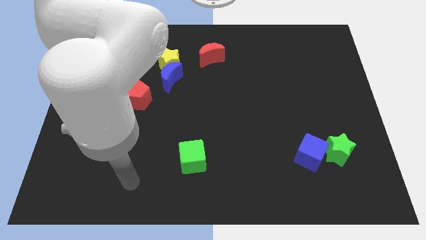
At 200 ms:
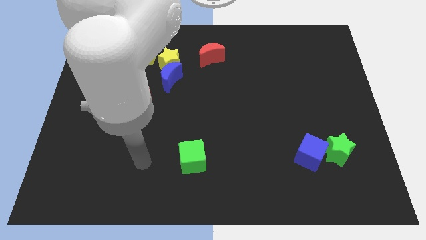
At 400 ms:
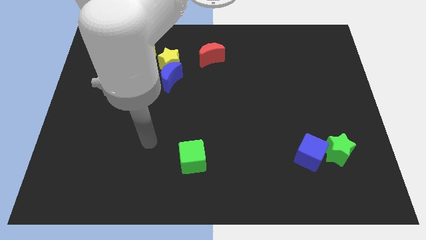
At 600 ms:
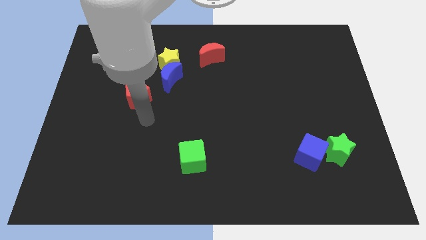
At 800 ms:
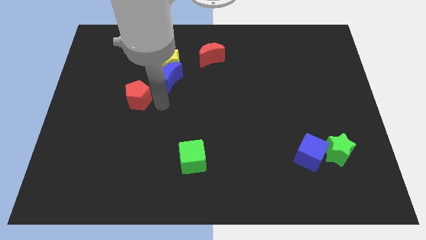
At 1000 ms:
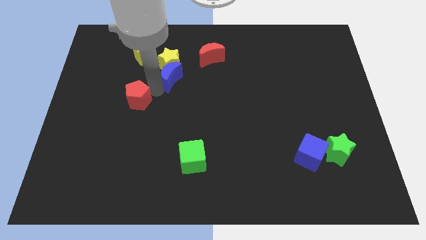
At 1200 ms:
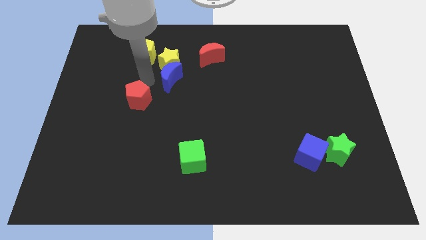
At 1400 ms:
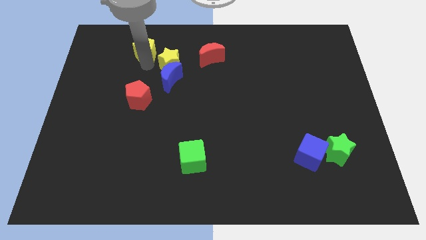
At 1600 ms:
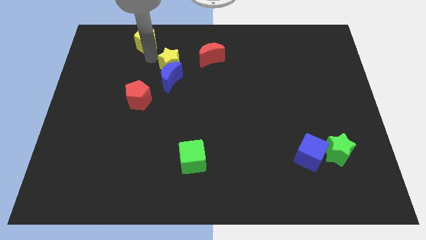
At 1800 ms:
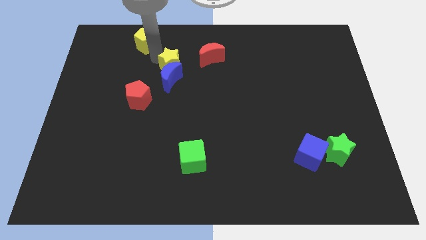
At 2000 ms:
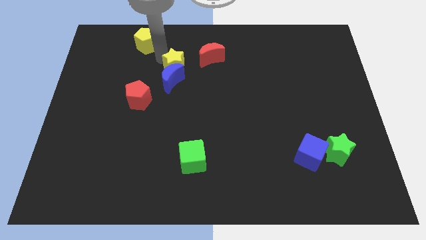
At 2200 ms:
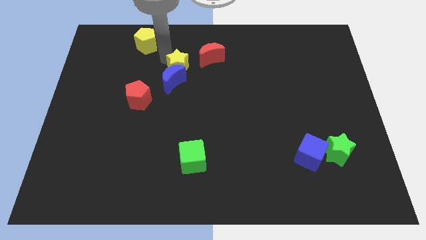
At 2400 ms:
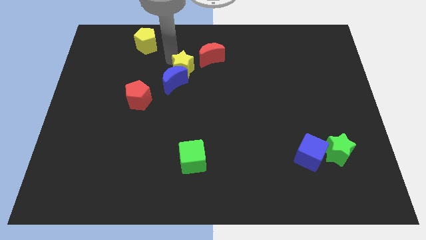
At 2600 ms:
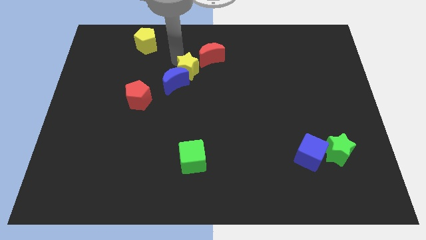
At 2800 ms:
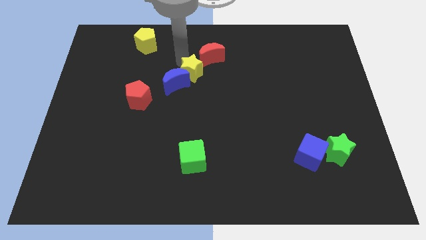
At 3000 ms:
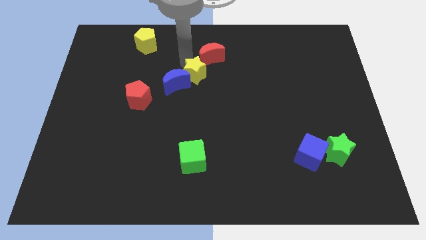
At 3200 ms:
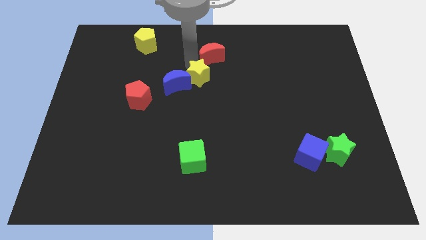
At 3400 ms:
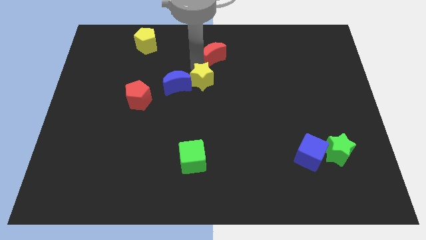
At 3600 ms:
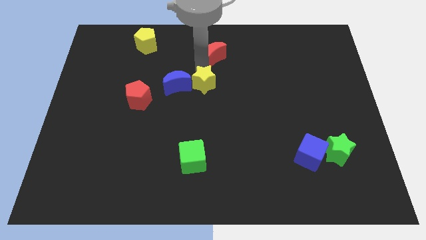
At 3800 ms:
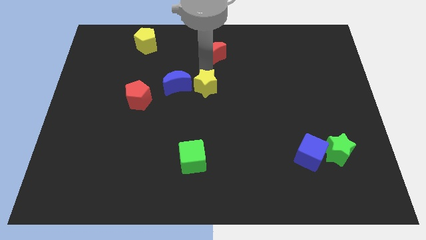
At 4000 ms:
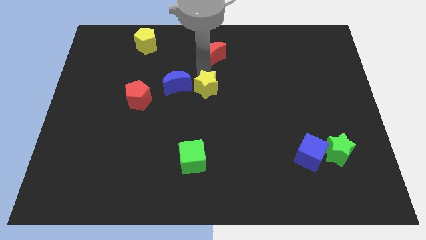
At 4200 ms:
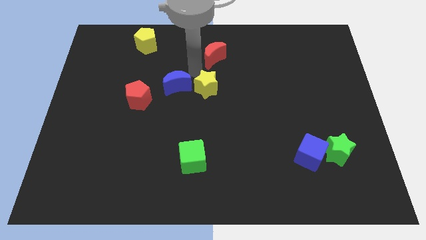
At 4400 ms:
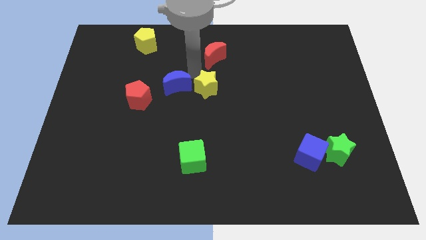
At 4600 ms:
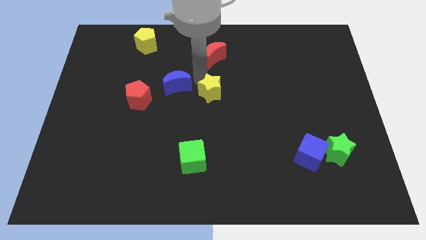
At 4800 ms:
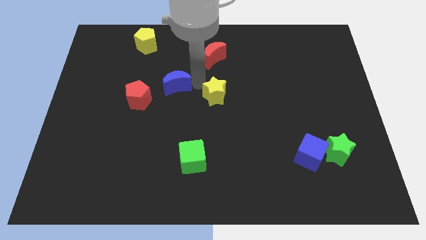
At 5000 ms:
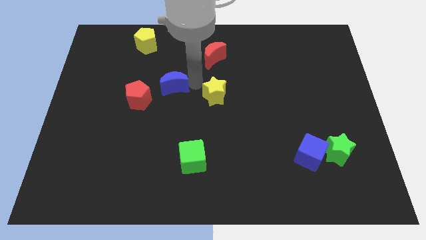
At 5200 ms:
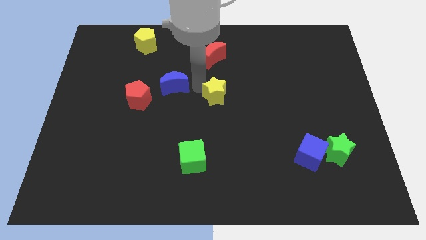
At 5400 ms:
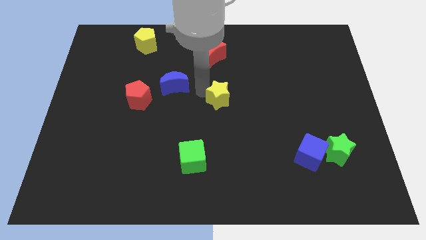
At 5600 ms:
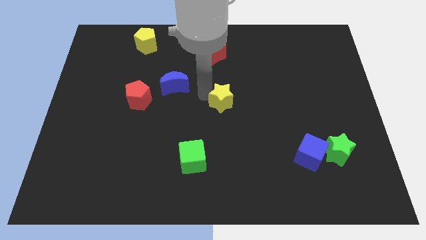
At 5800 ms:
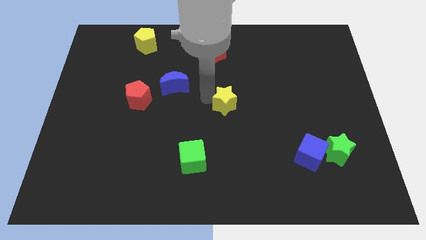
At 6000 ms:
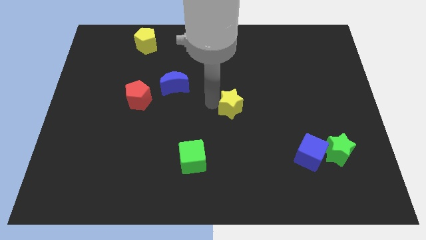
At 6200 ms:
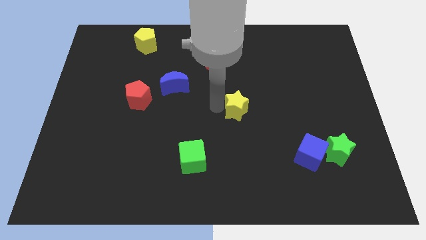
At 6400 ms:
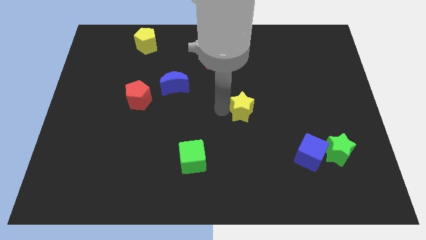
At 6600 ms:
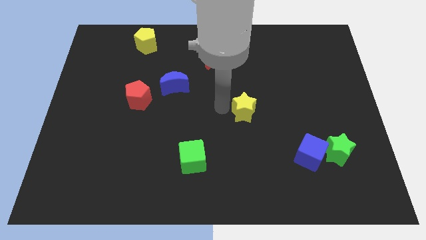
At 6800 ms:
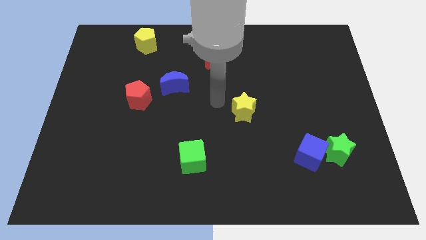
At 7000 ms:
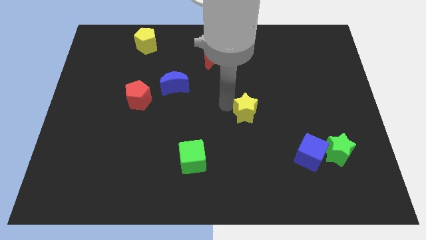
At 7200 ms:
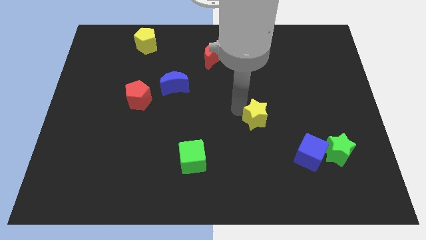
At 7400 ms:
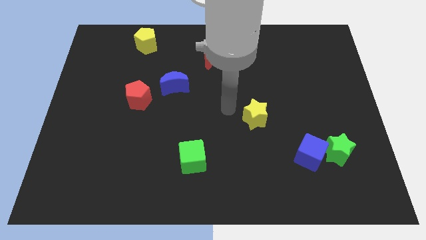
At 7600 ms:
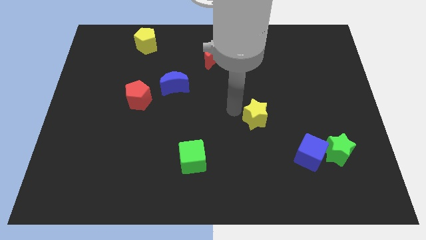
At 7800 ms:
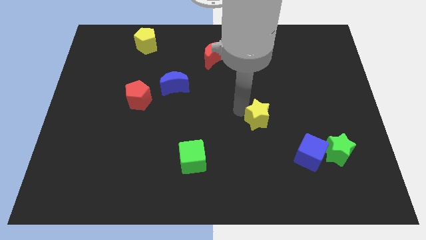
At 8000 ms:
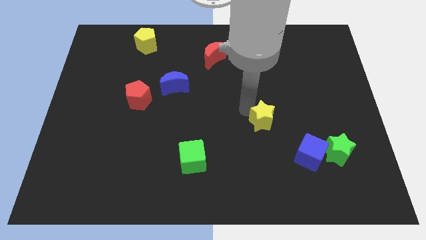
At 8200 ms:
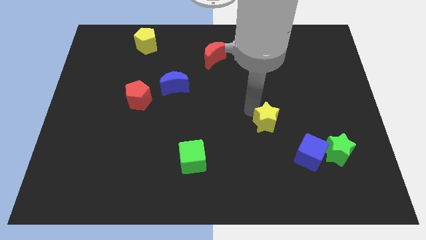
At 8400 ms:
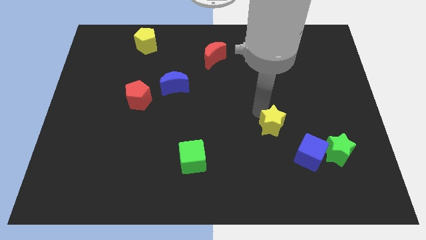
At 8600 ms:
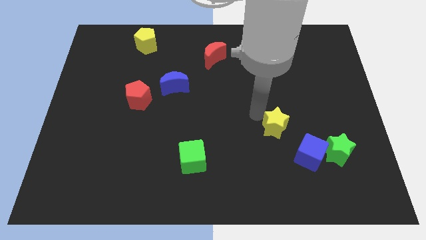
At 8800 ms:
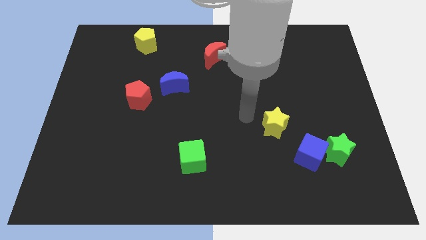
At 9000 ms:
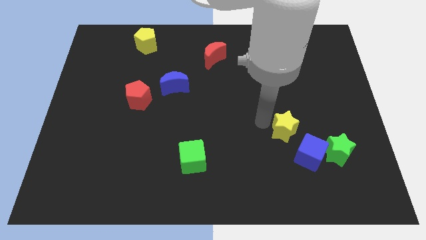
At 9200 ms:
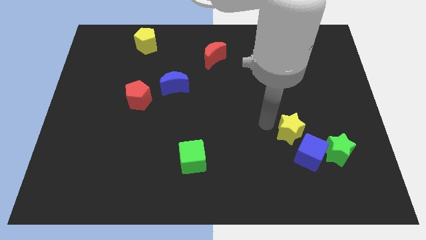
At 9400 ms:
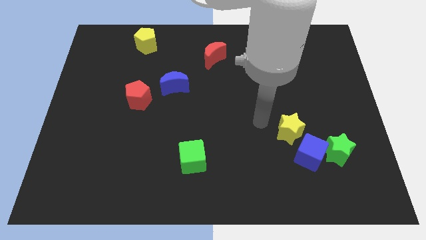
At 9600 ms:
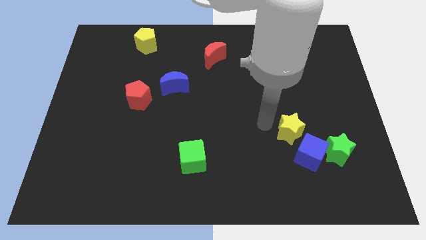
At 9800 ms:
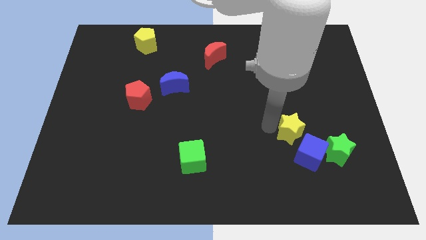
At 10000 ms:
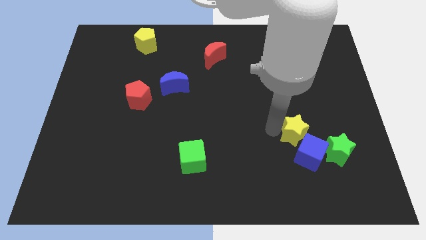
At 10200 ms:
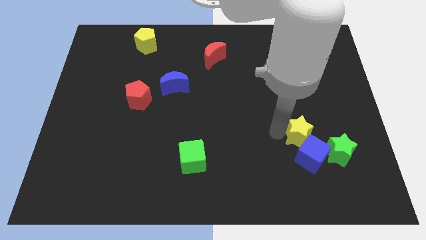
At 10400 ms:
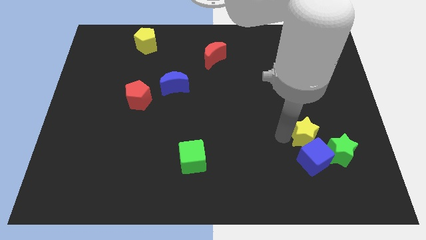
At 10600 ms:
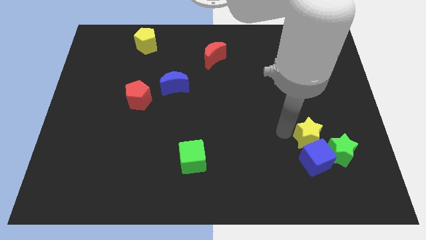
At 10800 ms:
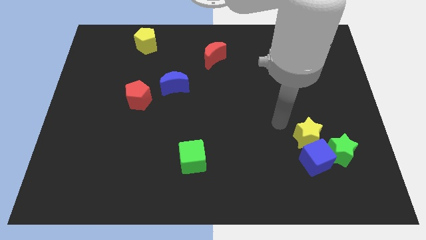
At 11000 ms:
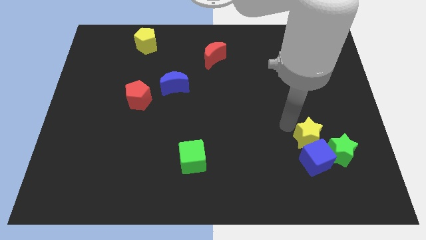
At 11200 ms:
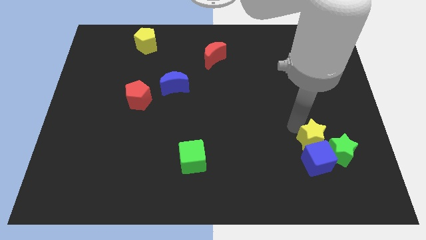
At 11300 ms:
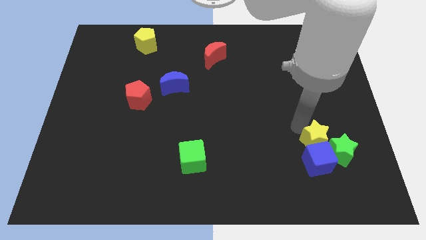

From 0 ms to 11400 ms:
put the yellow star next to the green star

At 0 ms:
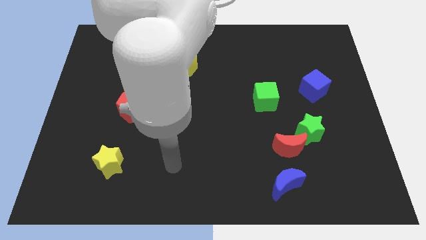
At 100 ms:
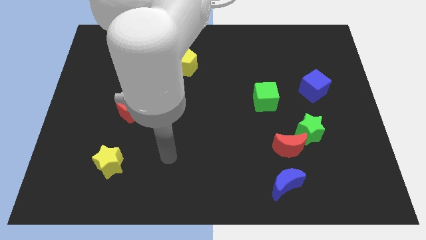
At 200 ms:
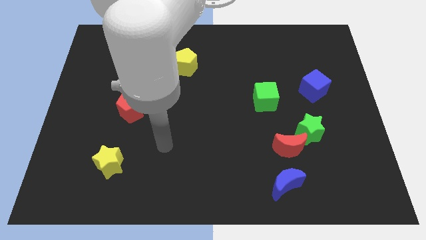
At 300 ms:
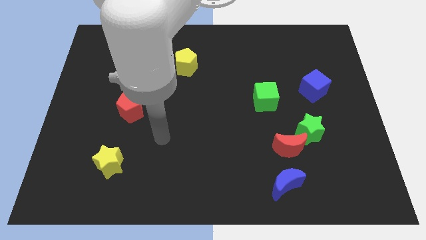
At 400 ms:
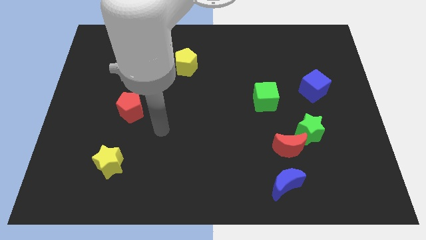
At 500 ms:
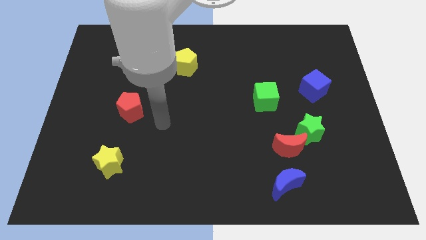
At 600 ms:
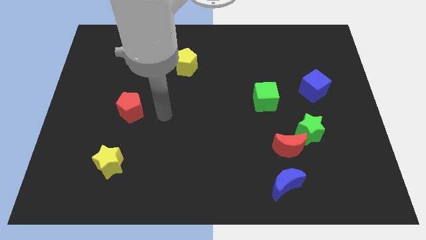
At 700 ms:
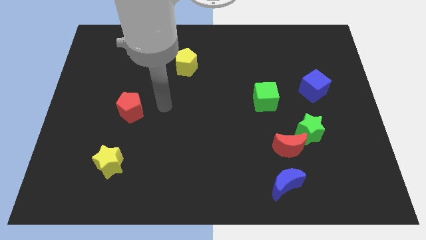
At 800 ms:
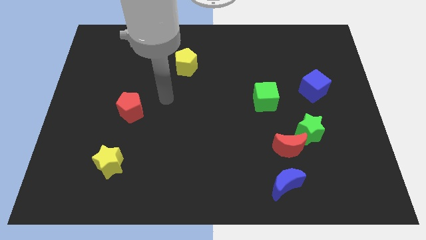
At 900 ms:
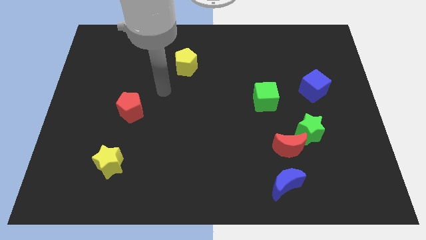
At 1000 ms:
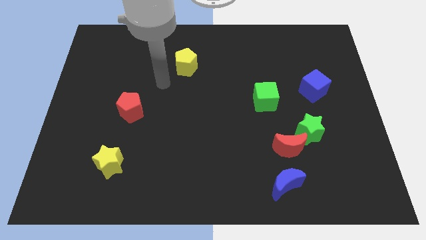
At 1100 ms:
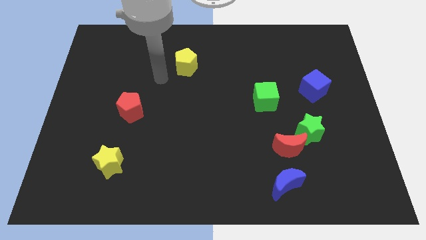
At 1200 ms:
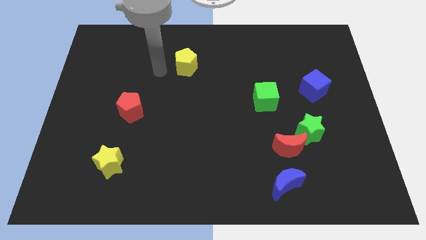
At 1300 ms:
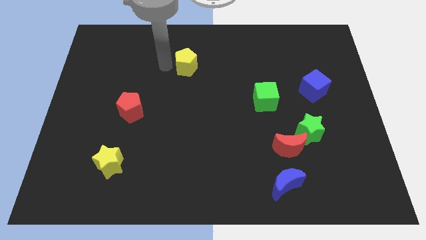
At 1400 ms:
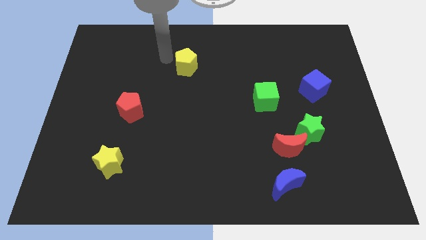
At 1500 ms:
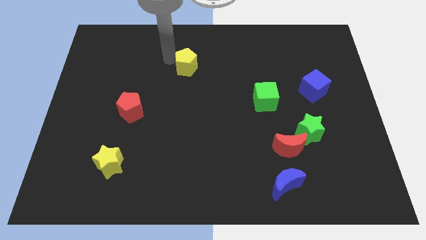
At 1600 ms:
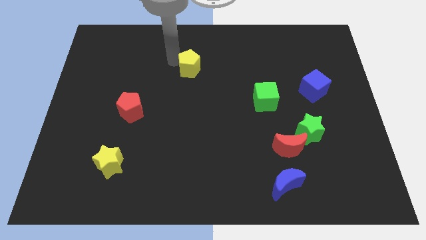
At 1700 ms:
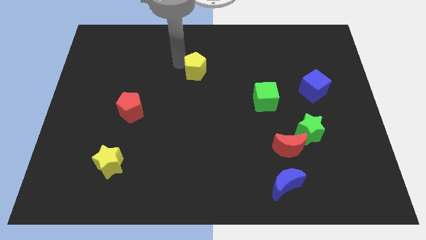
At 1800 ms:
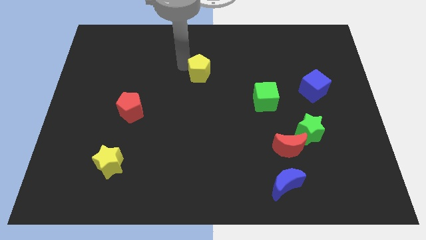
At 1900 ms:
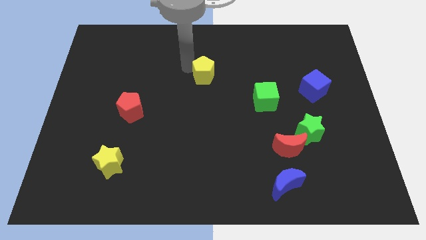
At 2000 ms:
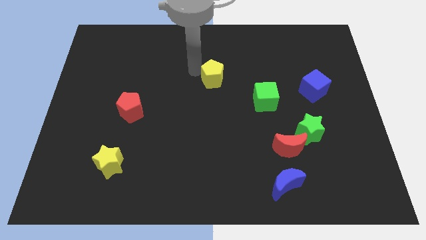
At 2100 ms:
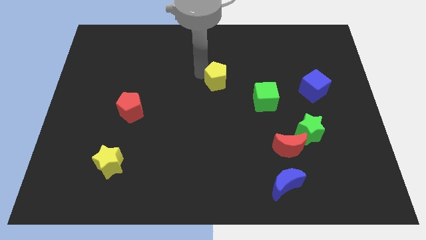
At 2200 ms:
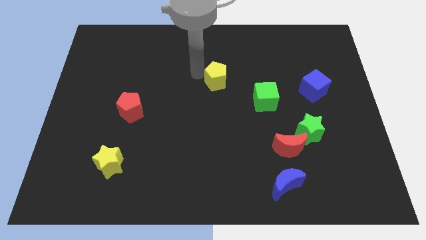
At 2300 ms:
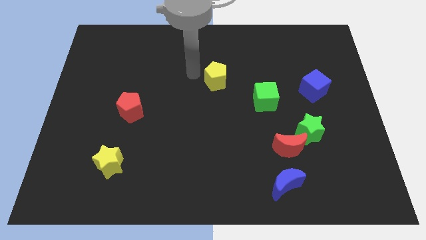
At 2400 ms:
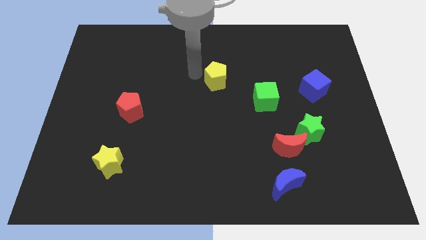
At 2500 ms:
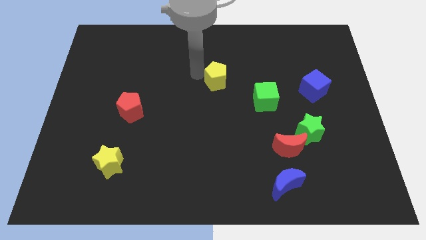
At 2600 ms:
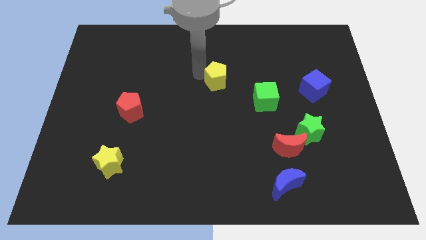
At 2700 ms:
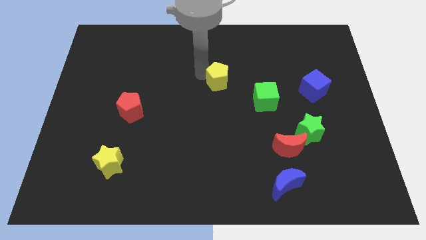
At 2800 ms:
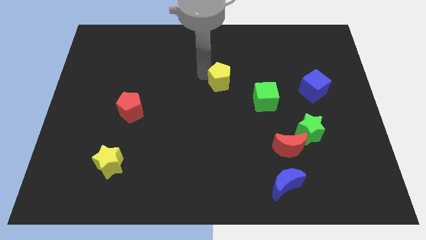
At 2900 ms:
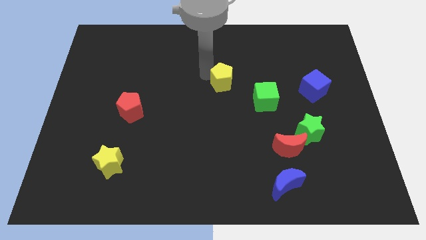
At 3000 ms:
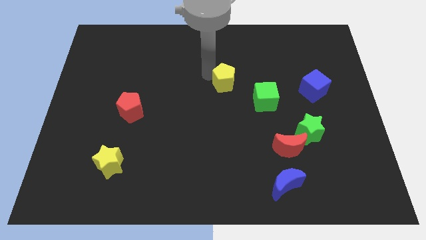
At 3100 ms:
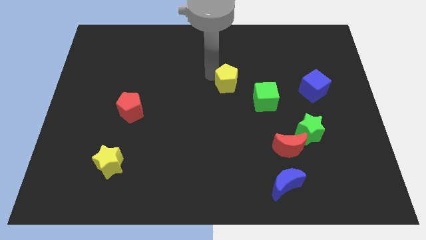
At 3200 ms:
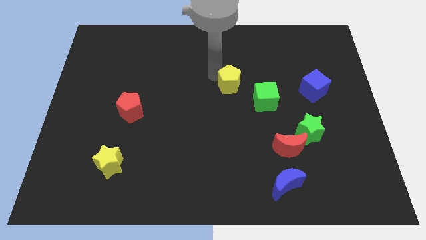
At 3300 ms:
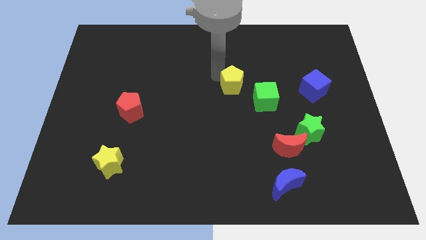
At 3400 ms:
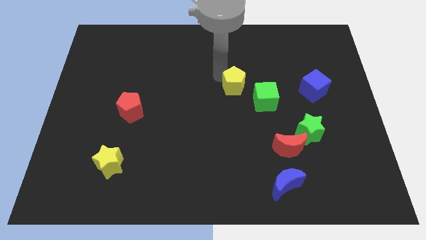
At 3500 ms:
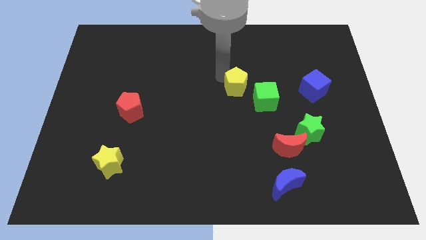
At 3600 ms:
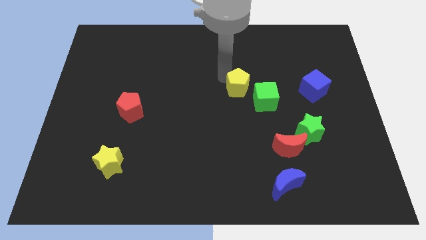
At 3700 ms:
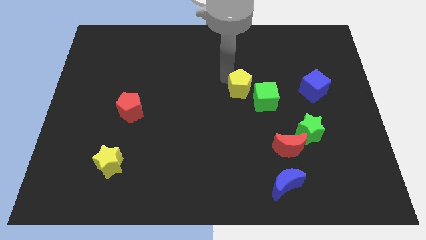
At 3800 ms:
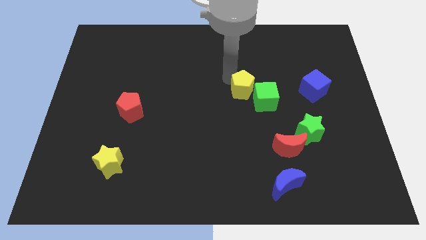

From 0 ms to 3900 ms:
push the yellow pentagon towards the green cube
